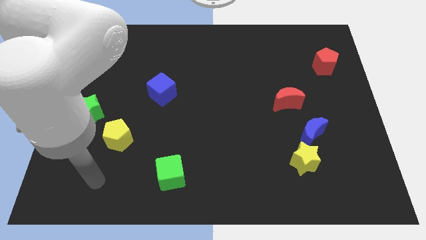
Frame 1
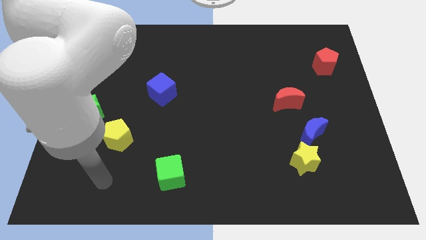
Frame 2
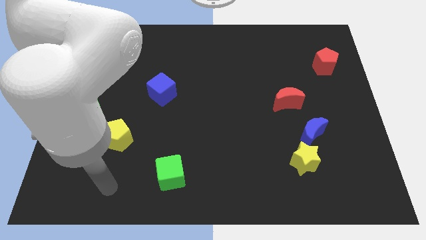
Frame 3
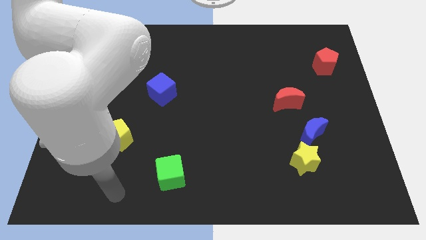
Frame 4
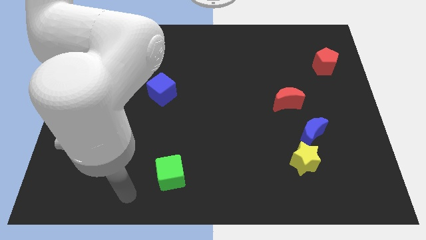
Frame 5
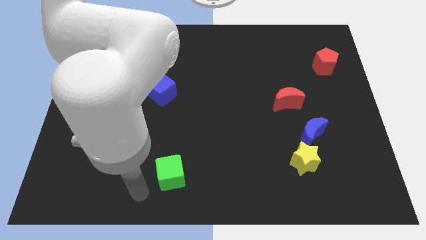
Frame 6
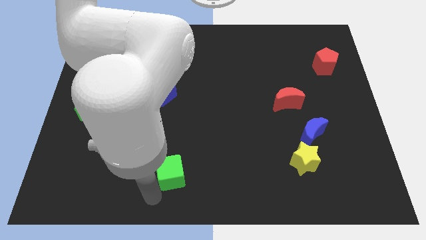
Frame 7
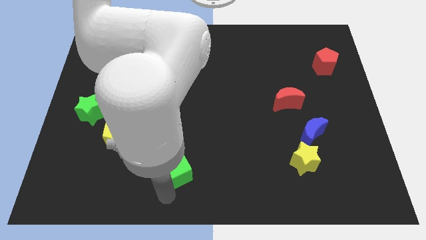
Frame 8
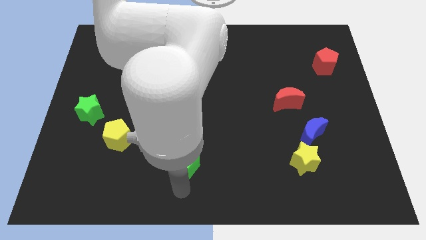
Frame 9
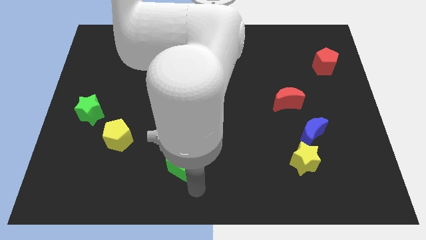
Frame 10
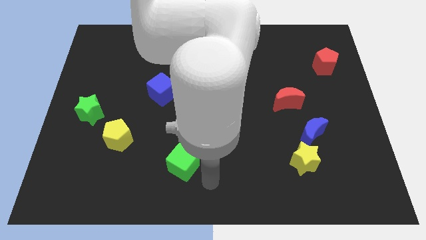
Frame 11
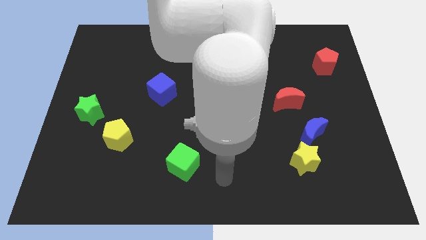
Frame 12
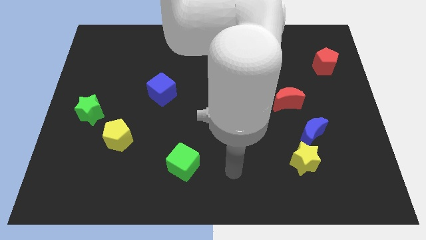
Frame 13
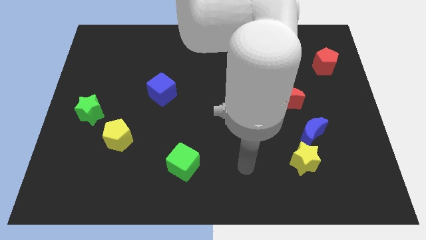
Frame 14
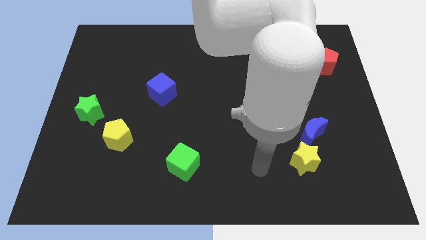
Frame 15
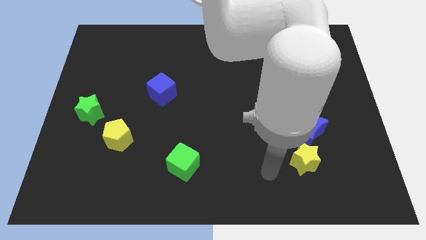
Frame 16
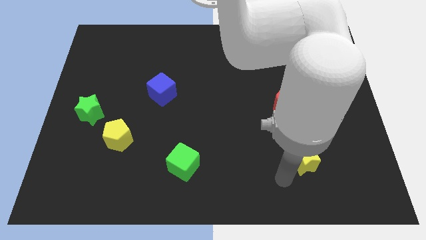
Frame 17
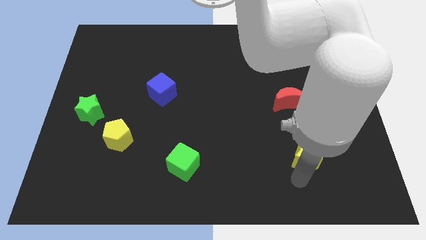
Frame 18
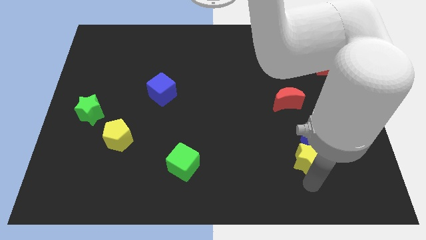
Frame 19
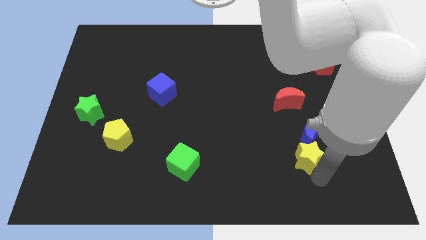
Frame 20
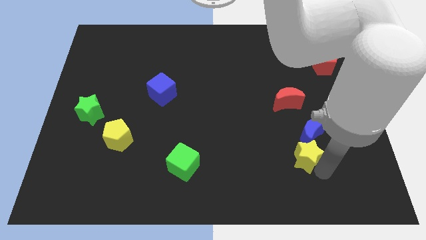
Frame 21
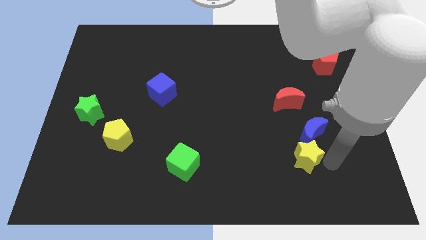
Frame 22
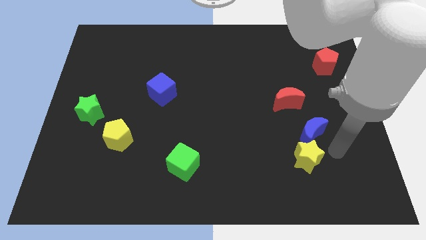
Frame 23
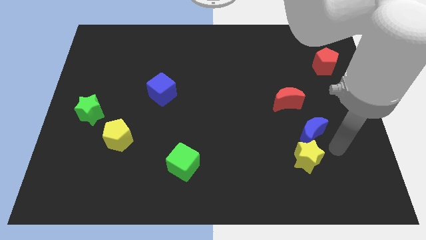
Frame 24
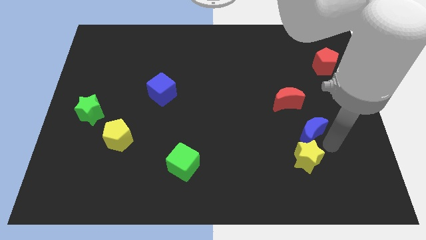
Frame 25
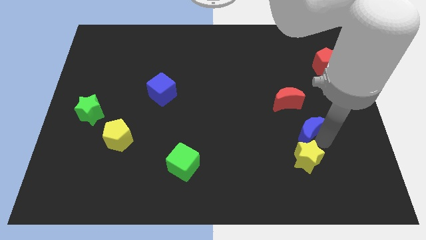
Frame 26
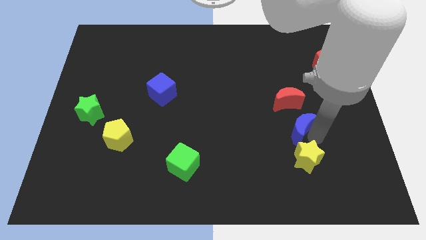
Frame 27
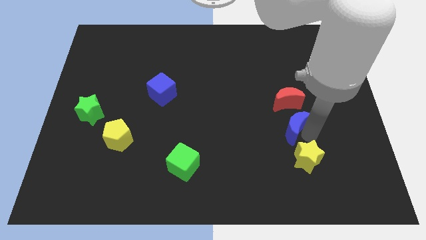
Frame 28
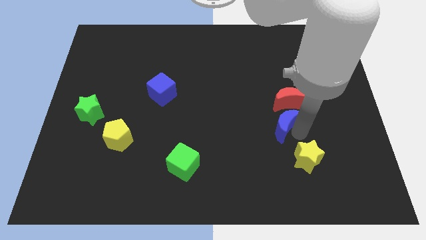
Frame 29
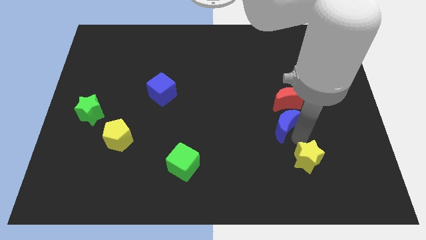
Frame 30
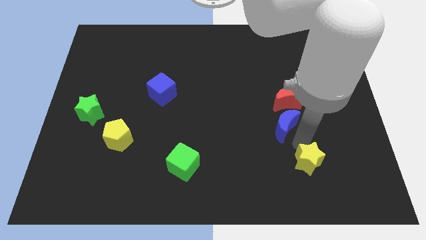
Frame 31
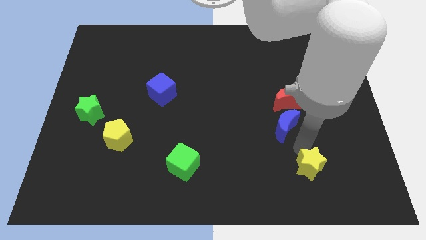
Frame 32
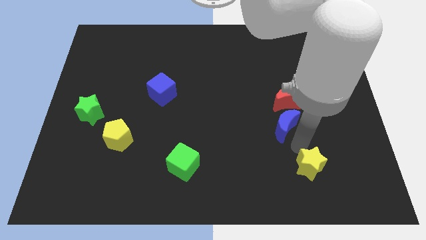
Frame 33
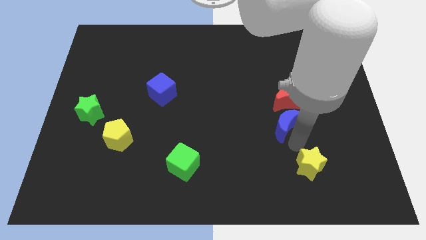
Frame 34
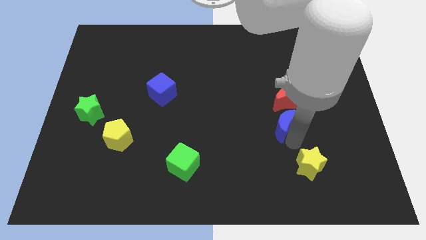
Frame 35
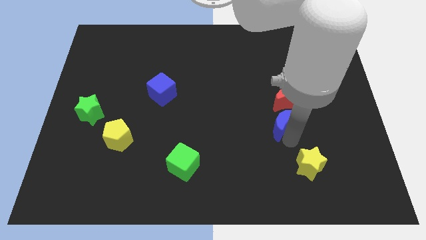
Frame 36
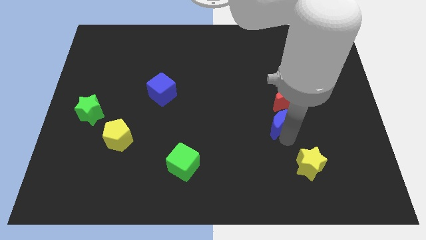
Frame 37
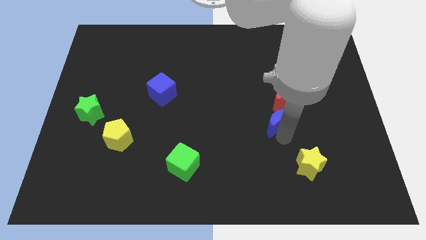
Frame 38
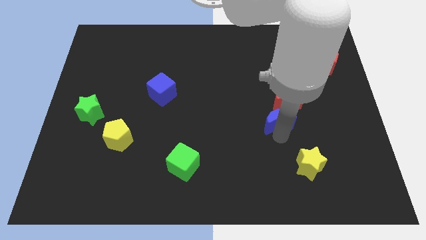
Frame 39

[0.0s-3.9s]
slightly slide the blue moon diagonally upwards and to the left

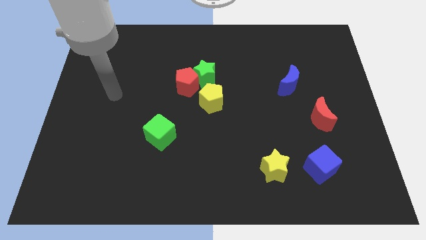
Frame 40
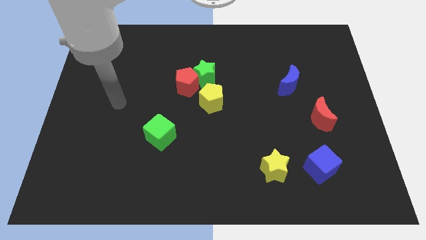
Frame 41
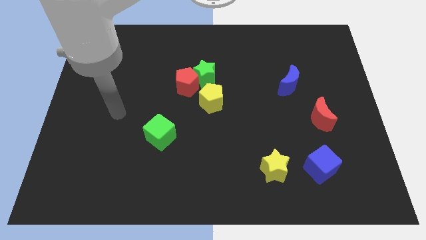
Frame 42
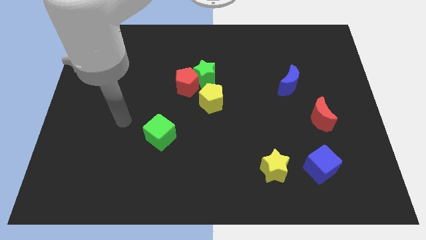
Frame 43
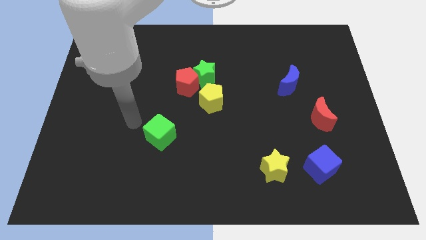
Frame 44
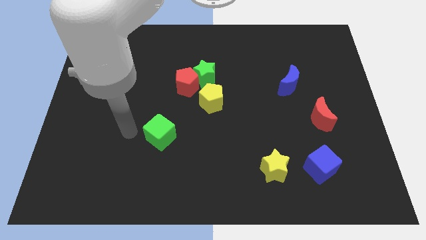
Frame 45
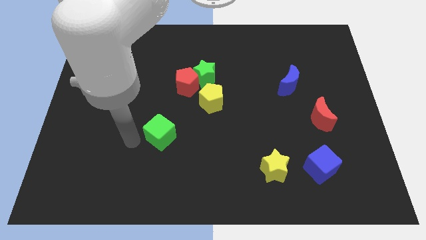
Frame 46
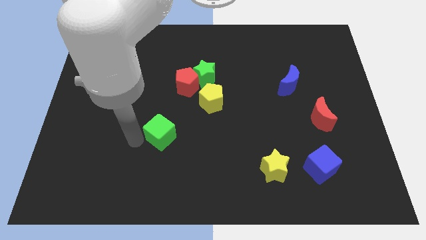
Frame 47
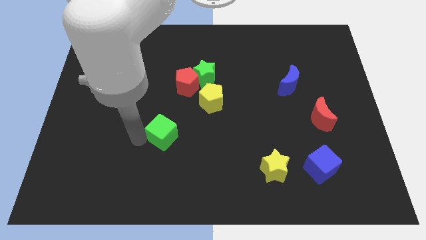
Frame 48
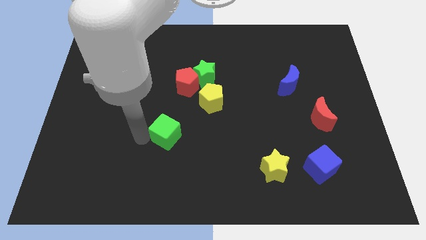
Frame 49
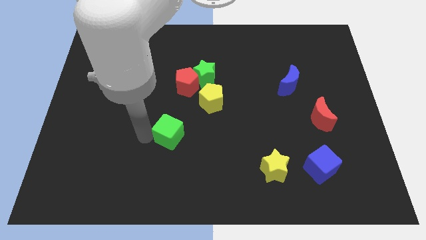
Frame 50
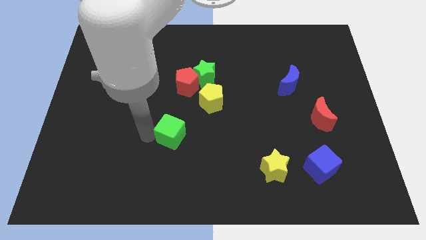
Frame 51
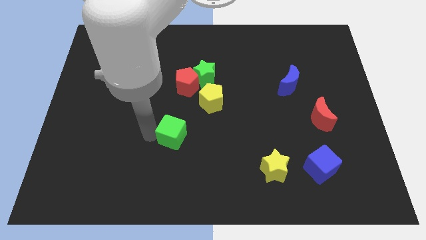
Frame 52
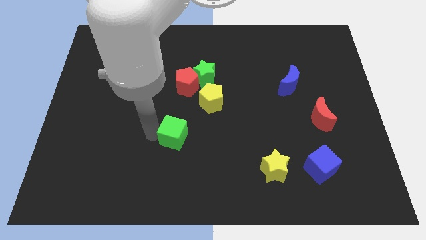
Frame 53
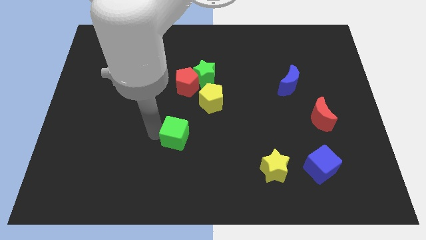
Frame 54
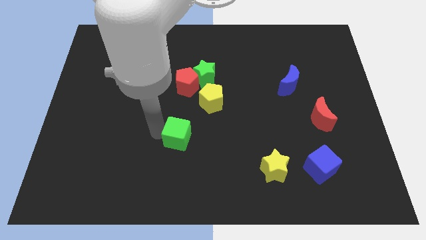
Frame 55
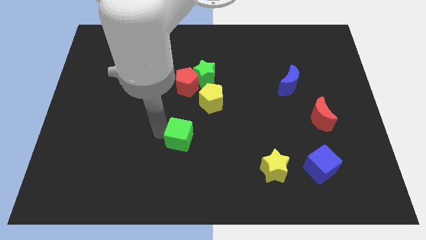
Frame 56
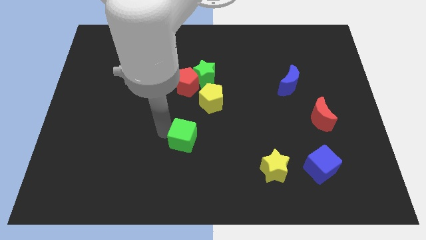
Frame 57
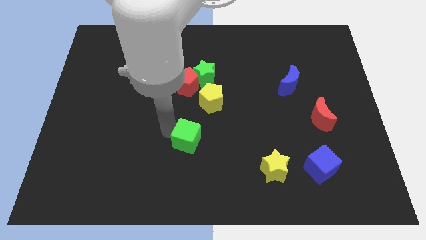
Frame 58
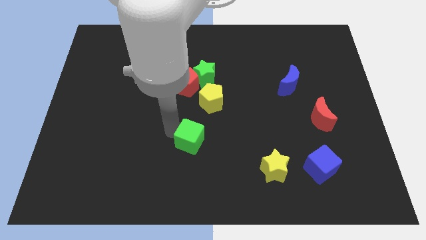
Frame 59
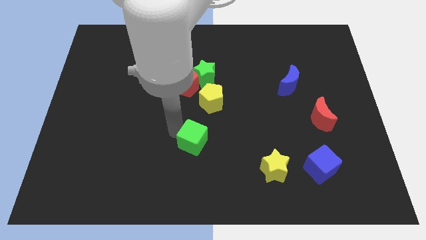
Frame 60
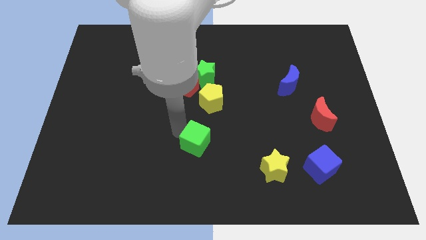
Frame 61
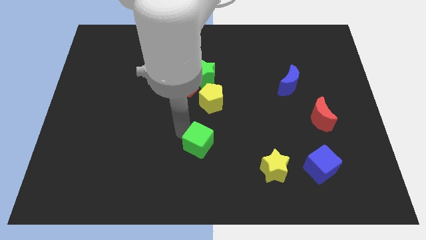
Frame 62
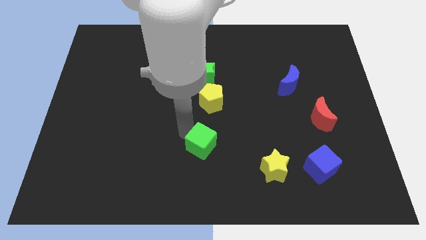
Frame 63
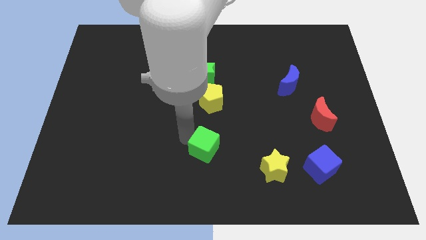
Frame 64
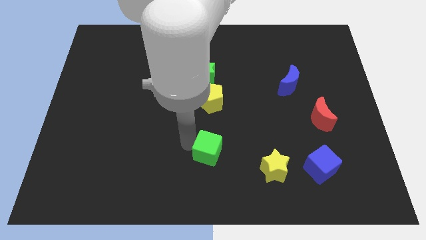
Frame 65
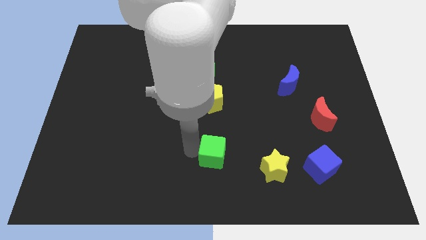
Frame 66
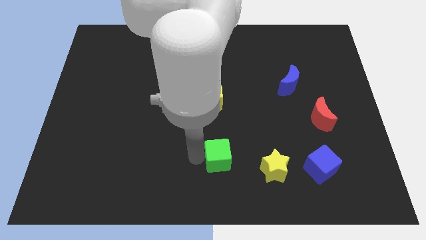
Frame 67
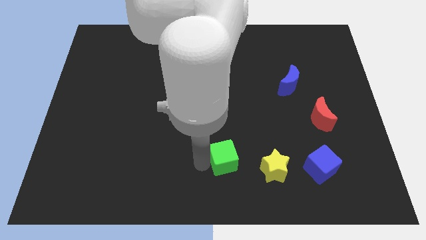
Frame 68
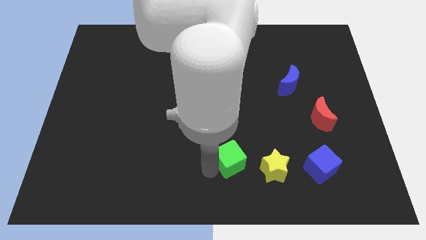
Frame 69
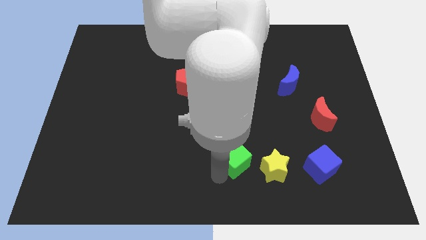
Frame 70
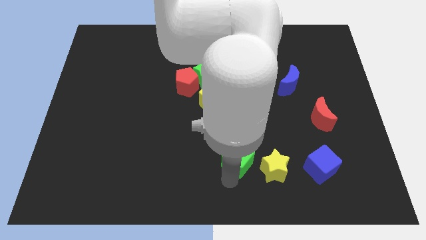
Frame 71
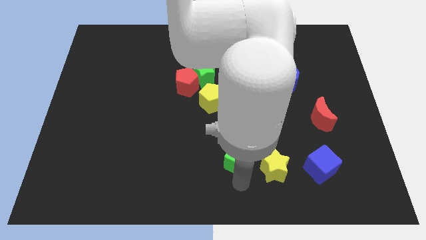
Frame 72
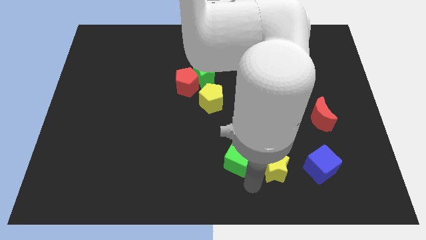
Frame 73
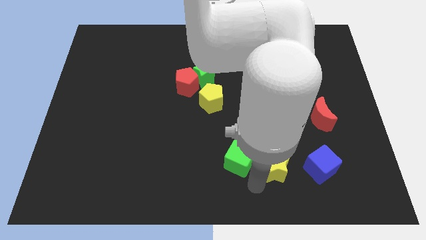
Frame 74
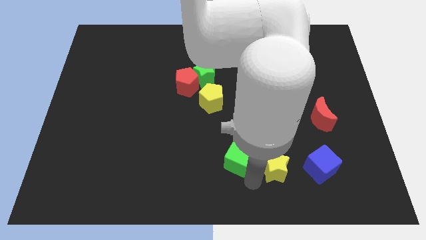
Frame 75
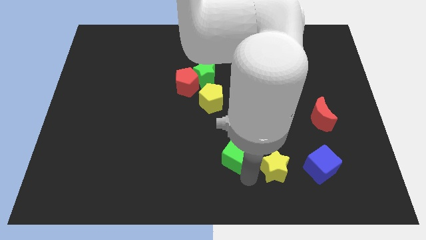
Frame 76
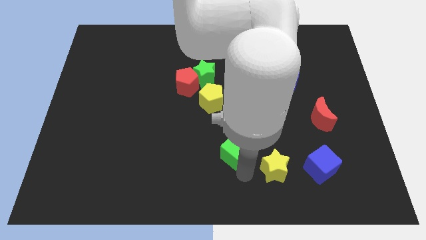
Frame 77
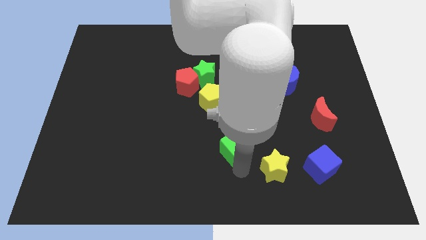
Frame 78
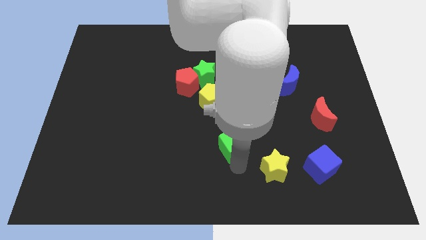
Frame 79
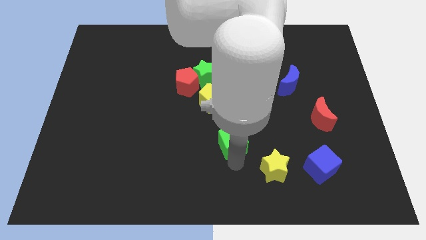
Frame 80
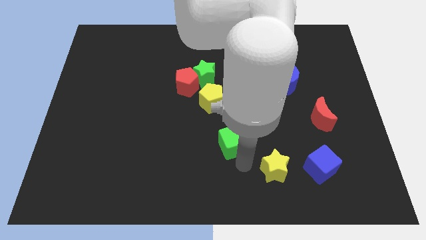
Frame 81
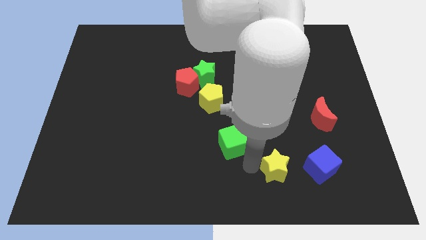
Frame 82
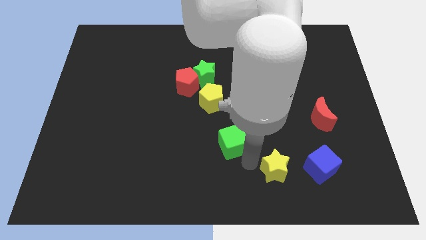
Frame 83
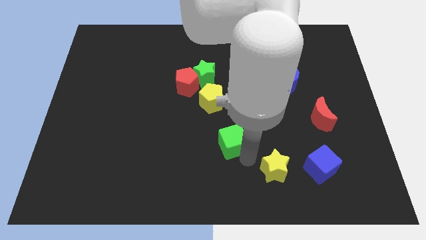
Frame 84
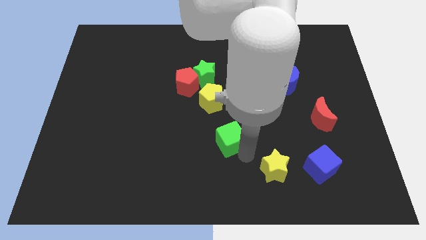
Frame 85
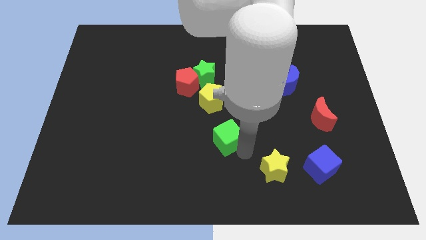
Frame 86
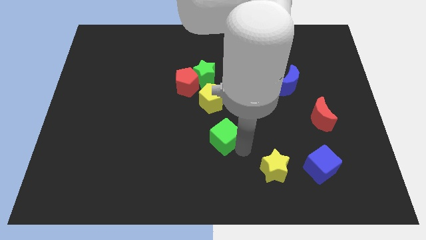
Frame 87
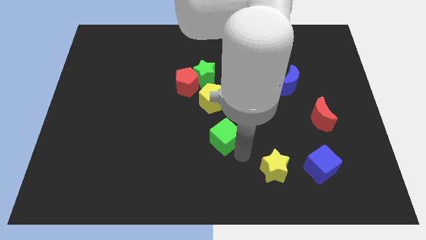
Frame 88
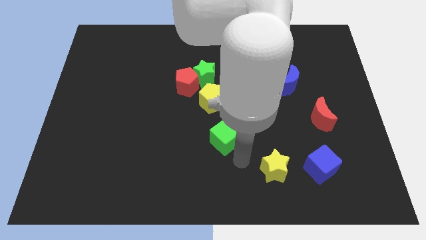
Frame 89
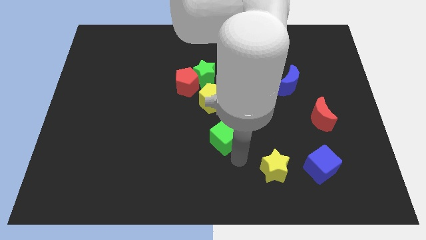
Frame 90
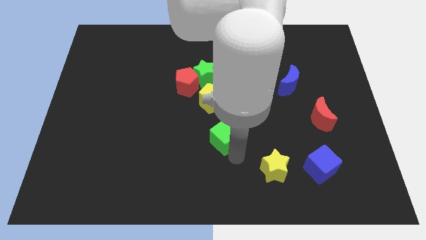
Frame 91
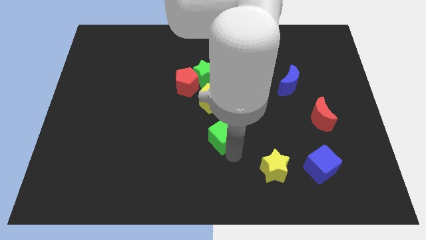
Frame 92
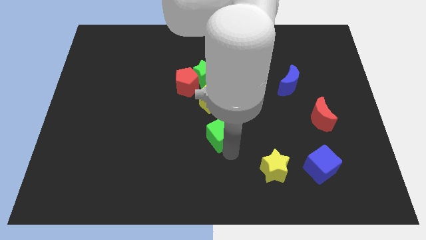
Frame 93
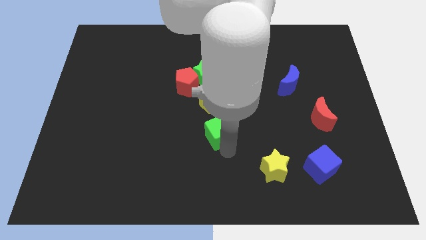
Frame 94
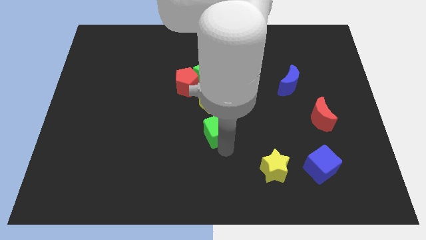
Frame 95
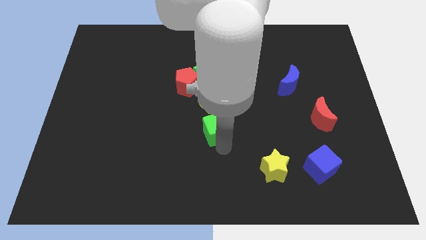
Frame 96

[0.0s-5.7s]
slide the green cube a little bit up and right diagonally
